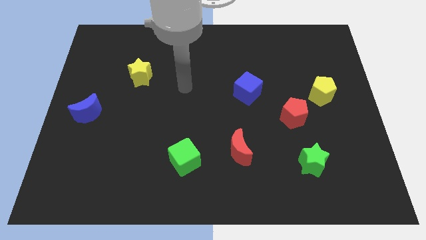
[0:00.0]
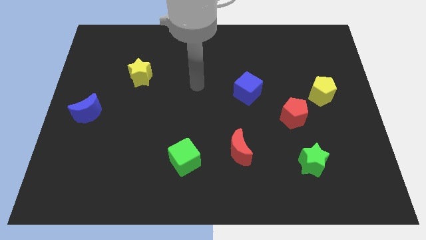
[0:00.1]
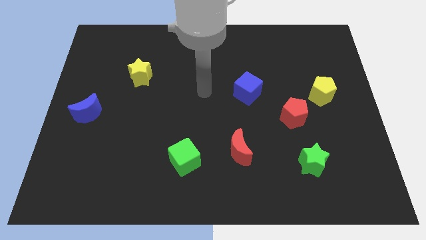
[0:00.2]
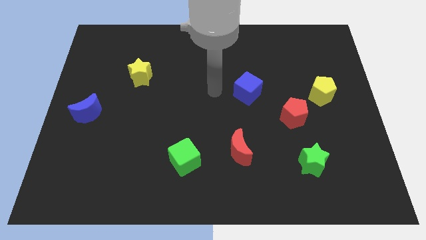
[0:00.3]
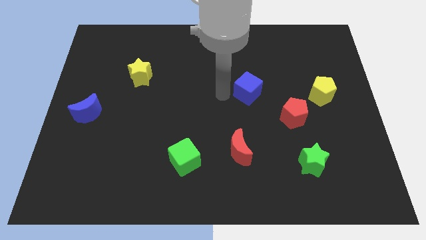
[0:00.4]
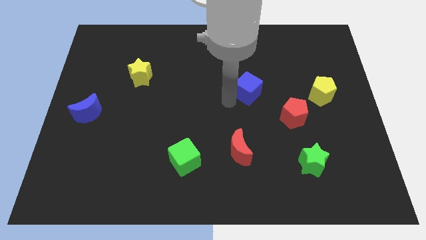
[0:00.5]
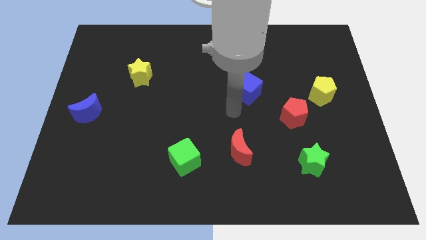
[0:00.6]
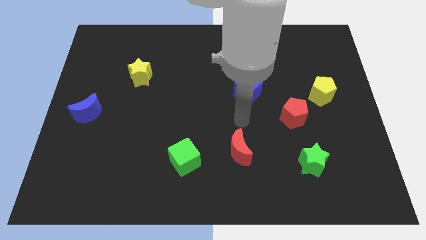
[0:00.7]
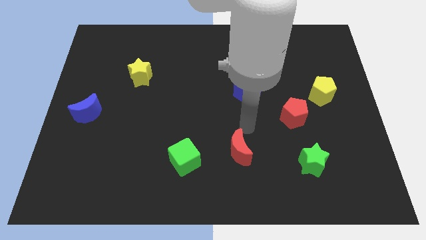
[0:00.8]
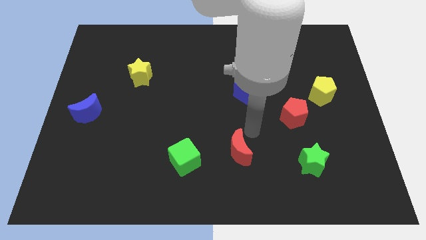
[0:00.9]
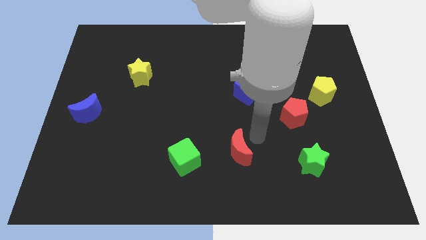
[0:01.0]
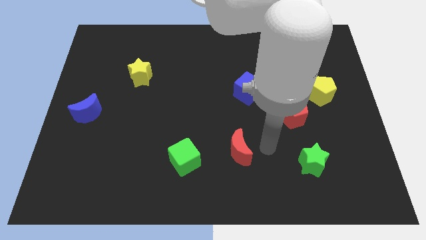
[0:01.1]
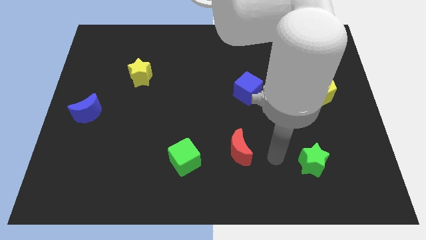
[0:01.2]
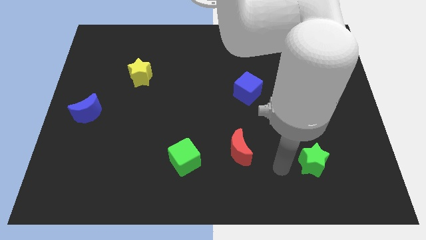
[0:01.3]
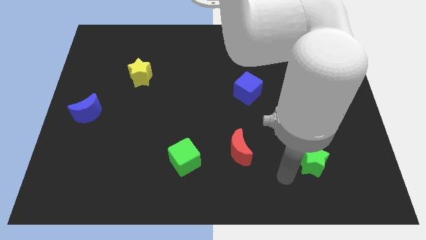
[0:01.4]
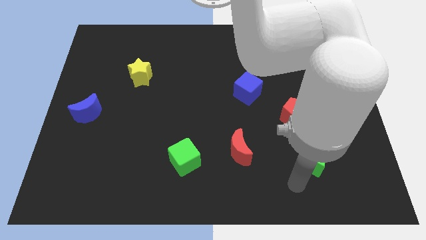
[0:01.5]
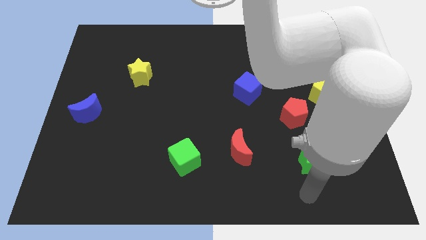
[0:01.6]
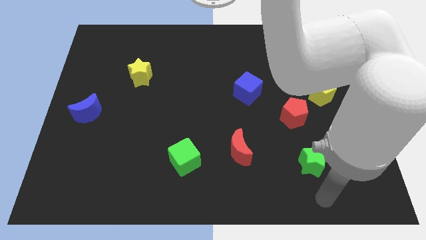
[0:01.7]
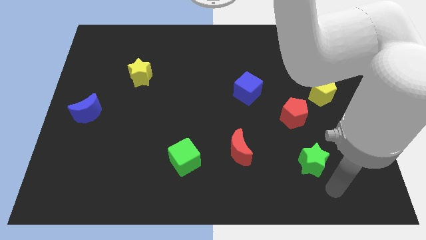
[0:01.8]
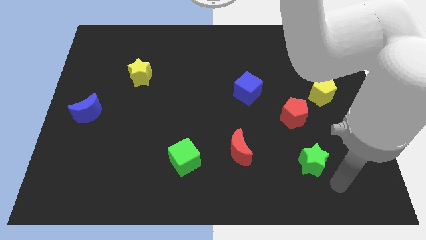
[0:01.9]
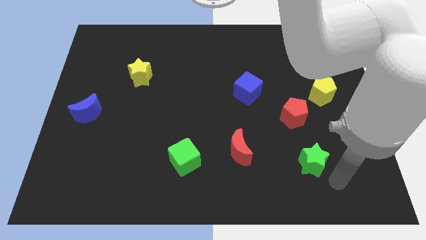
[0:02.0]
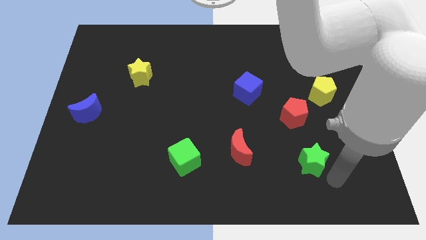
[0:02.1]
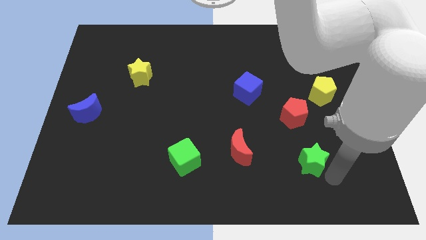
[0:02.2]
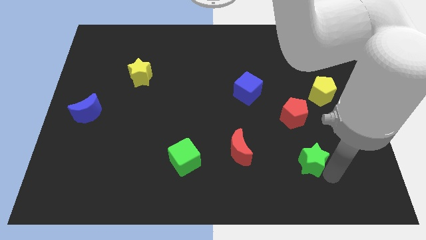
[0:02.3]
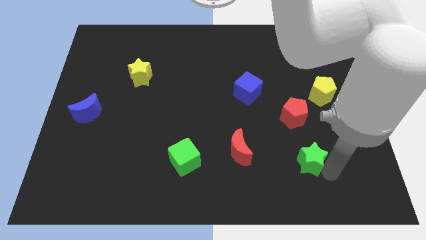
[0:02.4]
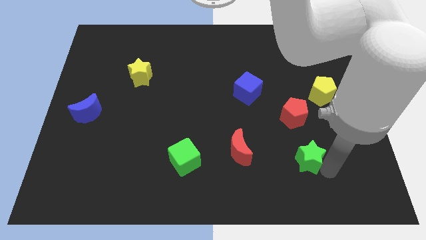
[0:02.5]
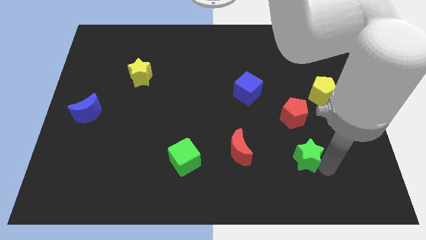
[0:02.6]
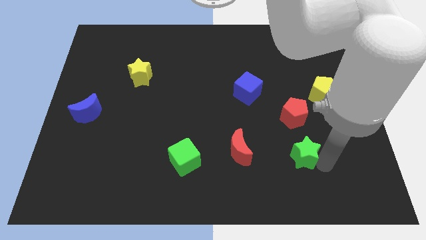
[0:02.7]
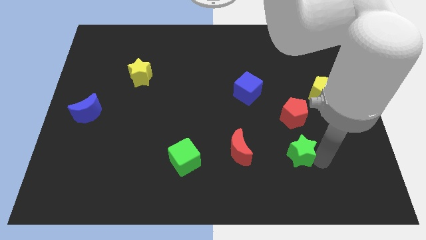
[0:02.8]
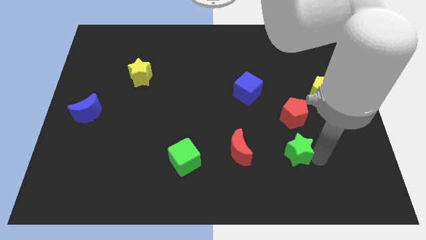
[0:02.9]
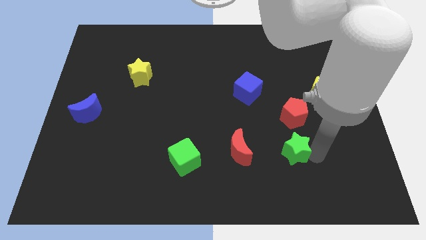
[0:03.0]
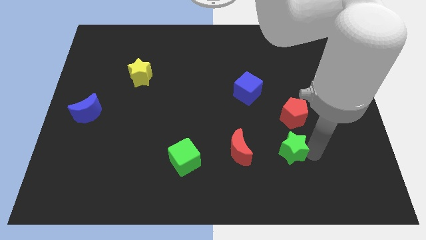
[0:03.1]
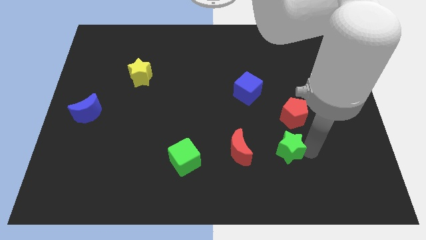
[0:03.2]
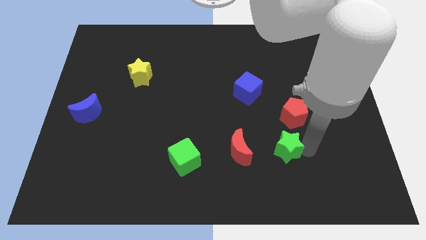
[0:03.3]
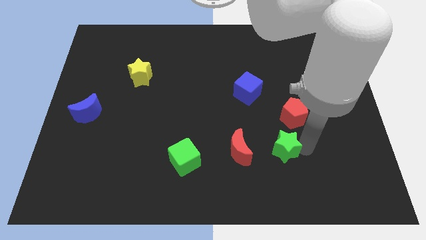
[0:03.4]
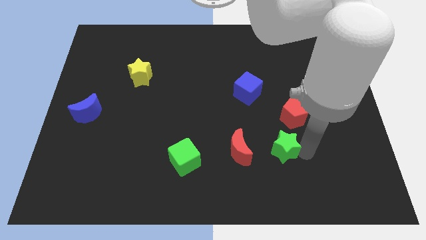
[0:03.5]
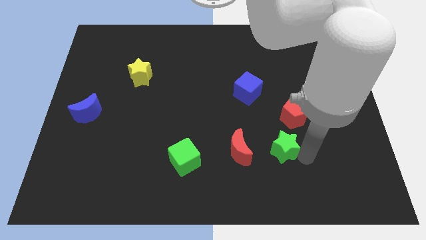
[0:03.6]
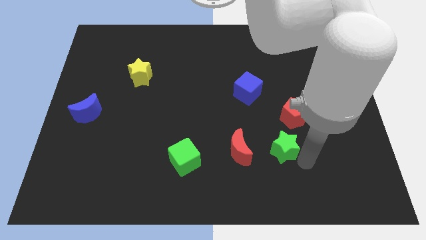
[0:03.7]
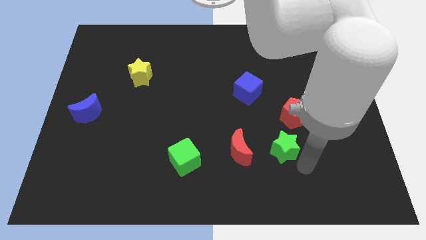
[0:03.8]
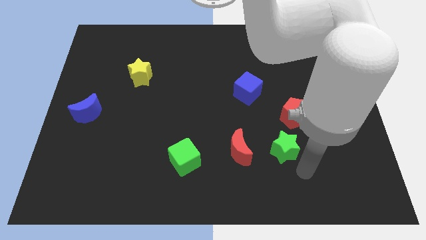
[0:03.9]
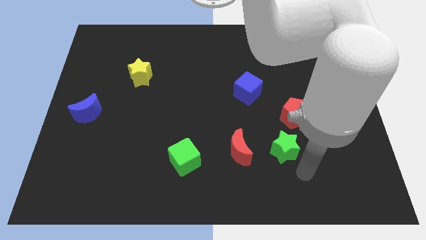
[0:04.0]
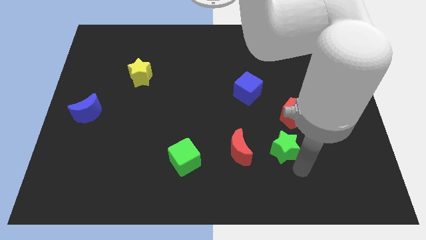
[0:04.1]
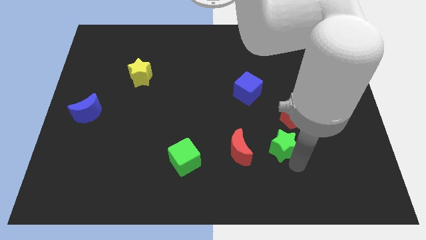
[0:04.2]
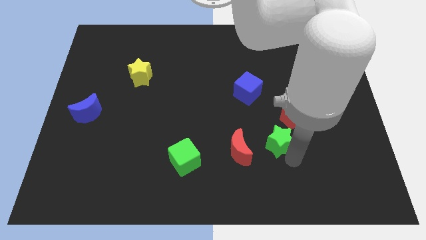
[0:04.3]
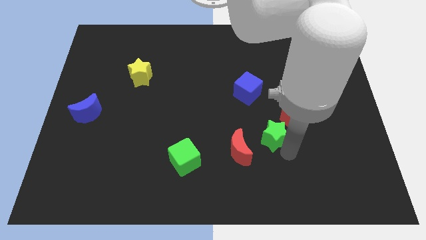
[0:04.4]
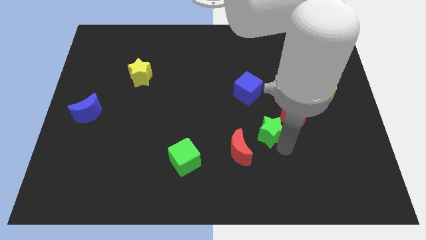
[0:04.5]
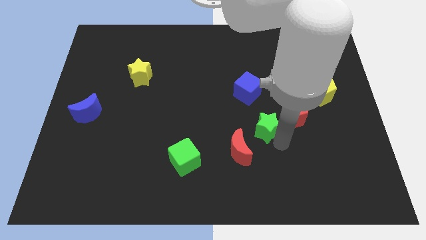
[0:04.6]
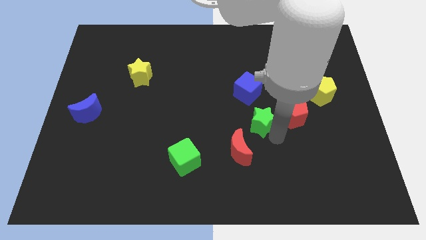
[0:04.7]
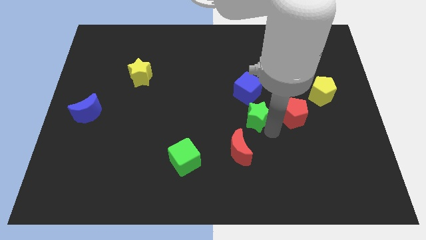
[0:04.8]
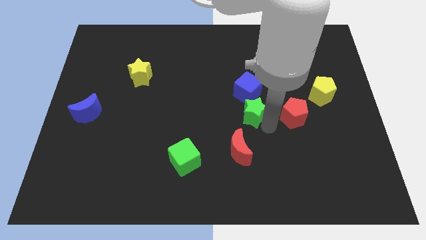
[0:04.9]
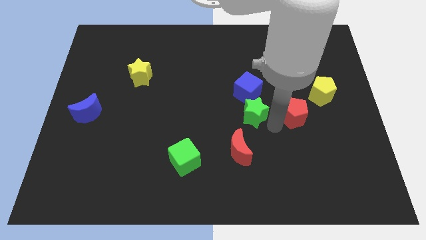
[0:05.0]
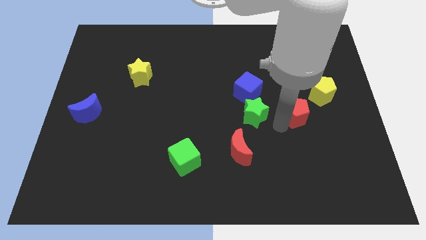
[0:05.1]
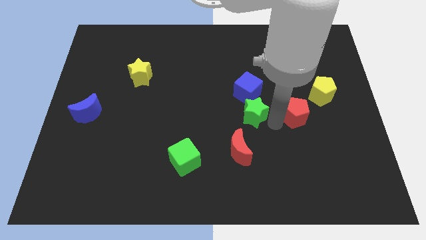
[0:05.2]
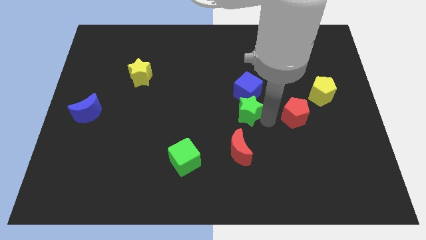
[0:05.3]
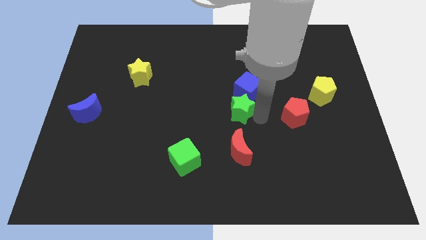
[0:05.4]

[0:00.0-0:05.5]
move the green star diagonally upwards and left

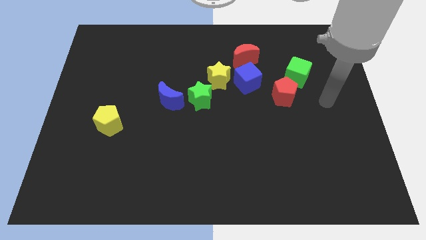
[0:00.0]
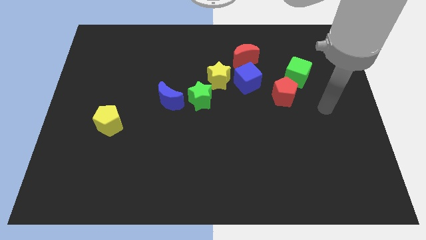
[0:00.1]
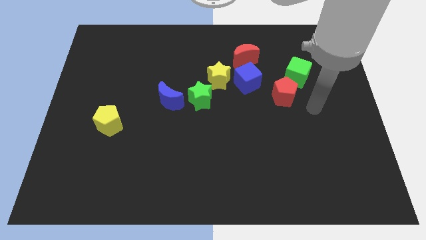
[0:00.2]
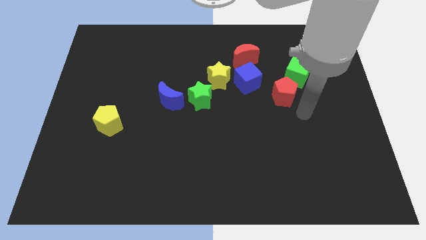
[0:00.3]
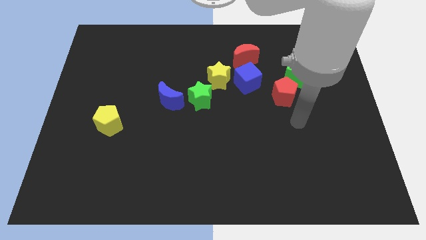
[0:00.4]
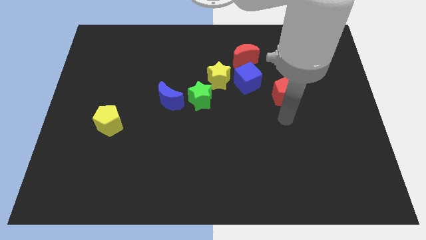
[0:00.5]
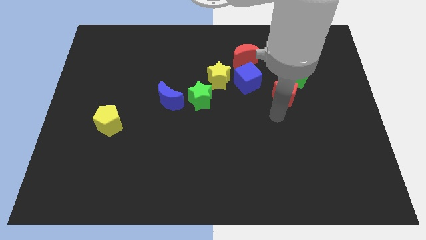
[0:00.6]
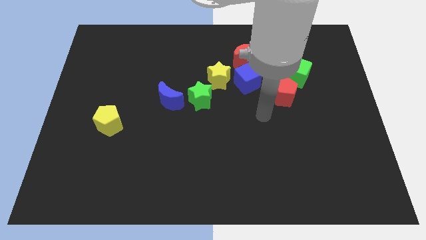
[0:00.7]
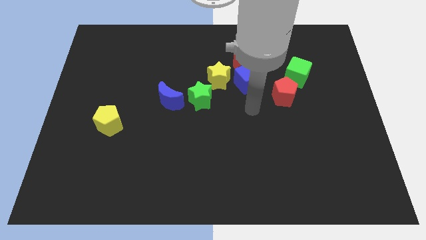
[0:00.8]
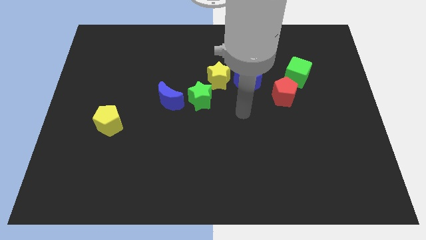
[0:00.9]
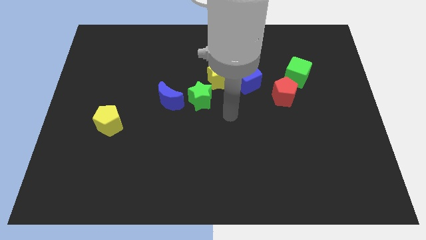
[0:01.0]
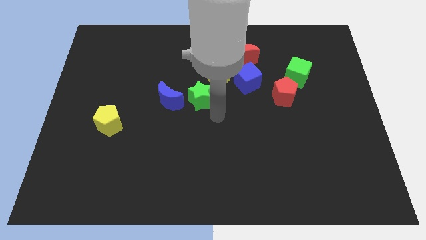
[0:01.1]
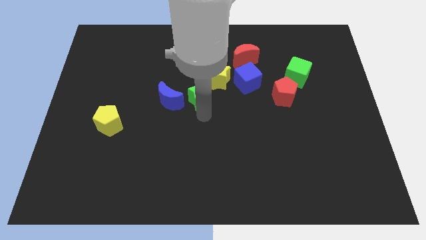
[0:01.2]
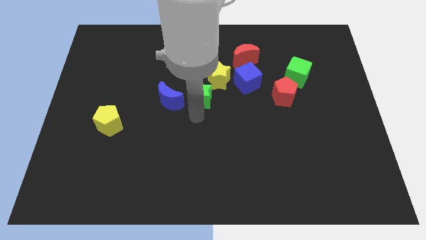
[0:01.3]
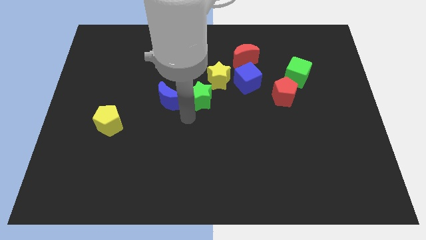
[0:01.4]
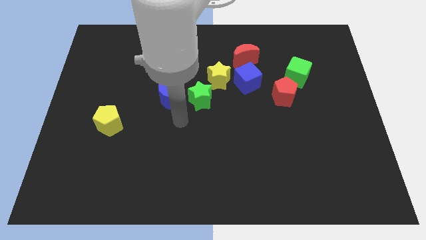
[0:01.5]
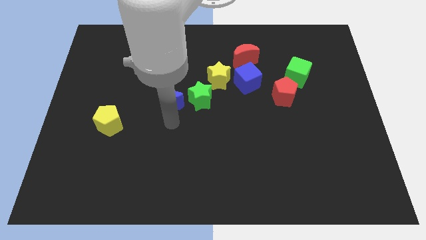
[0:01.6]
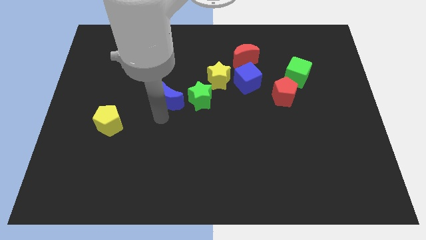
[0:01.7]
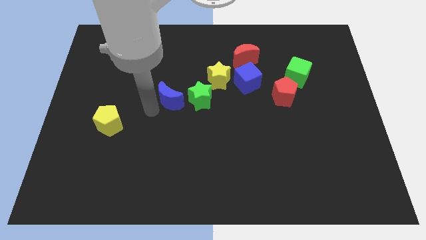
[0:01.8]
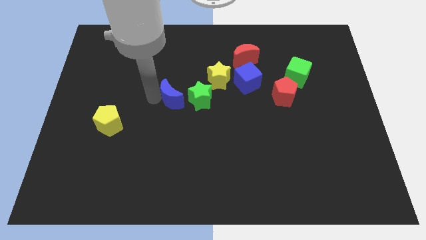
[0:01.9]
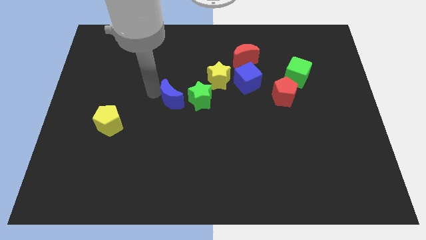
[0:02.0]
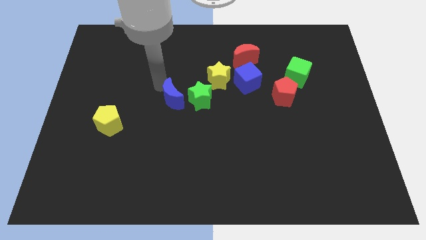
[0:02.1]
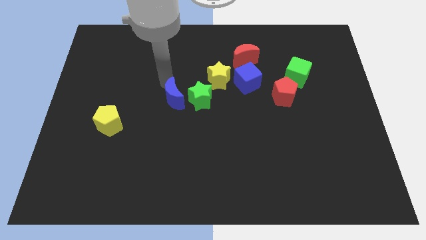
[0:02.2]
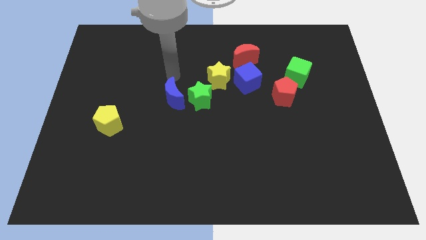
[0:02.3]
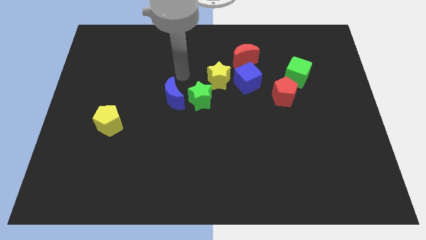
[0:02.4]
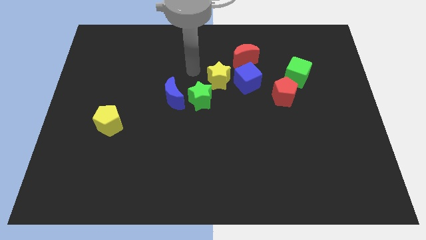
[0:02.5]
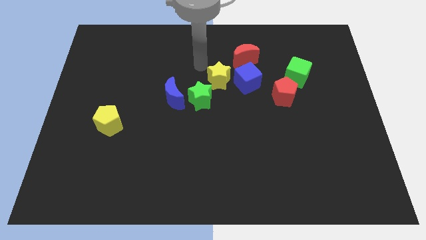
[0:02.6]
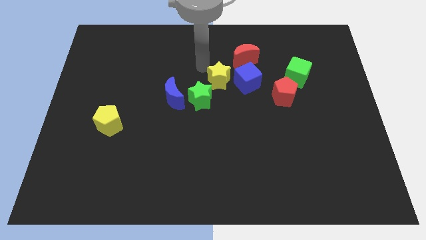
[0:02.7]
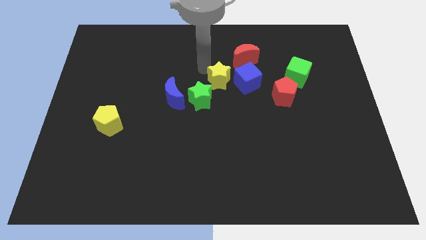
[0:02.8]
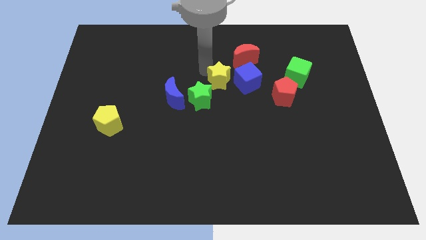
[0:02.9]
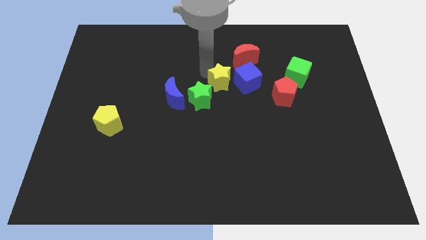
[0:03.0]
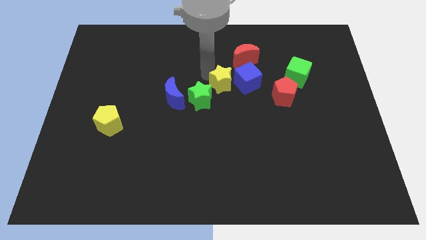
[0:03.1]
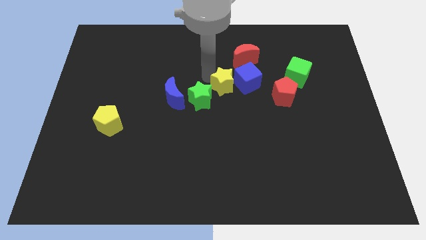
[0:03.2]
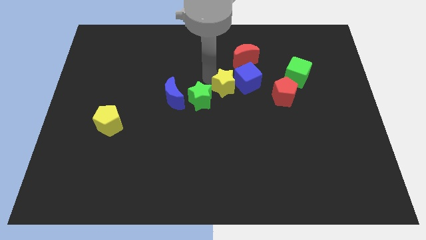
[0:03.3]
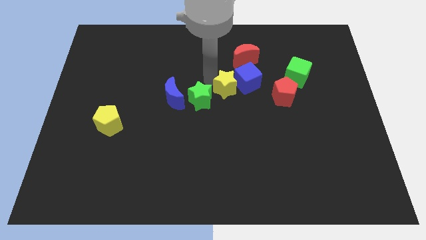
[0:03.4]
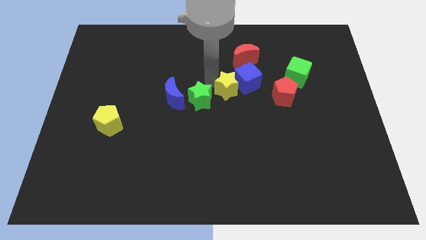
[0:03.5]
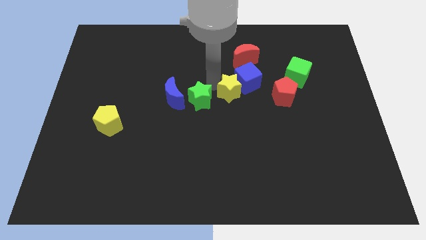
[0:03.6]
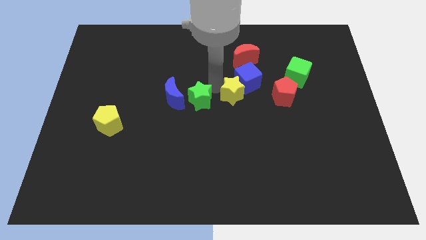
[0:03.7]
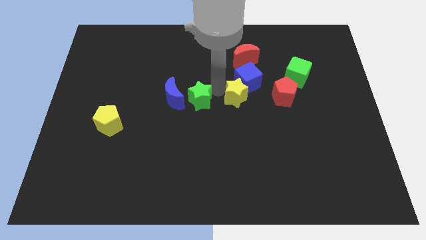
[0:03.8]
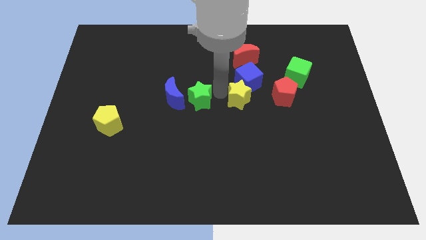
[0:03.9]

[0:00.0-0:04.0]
slide the yellow star a bit down and then to the right
